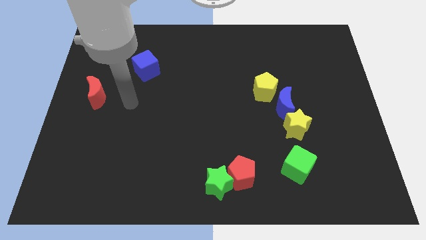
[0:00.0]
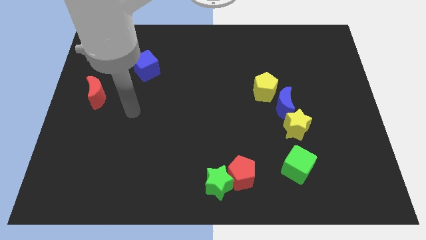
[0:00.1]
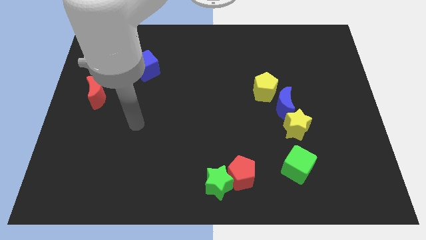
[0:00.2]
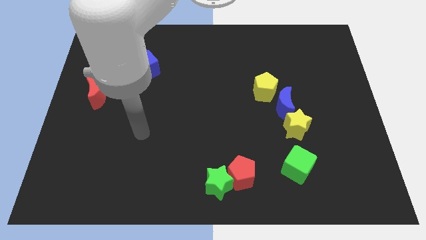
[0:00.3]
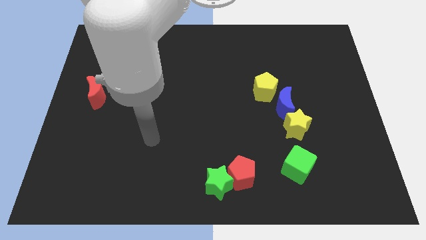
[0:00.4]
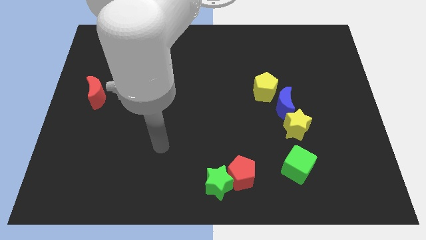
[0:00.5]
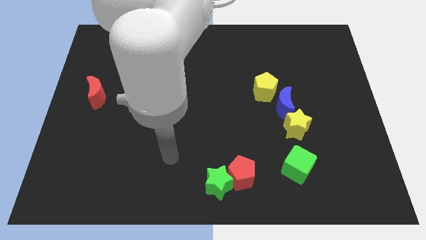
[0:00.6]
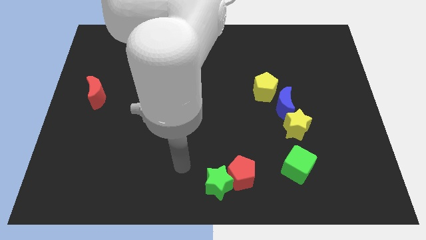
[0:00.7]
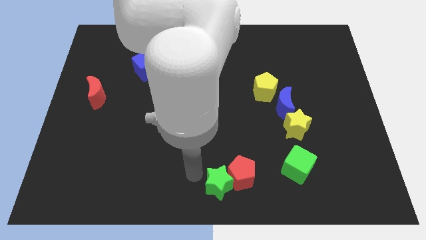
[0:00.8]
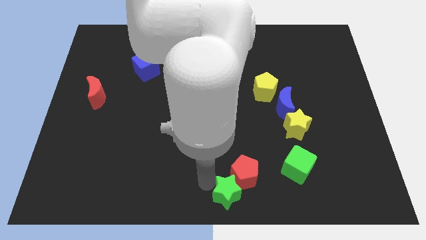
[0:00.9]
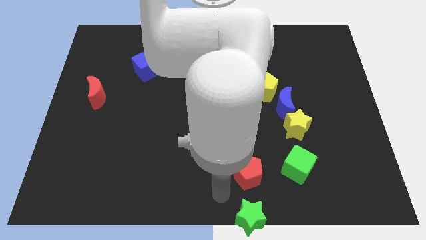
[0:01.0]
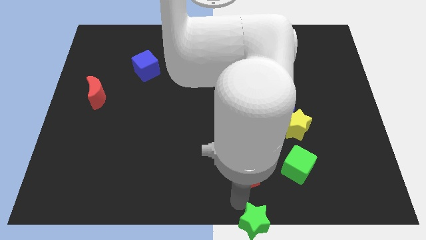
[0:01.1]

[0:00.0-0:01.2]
separate the red pentagon from the green star

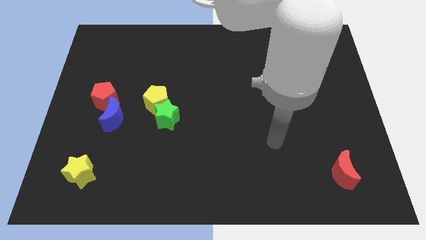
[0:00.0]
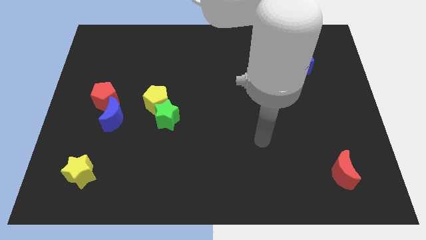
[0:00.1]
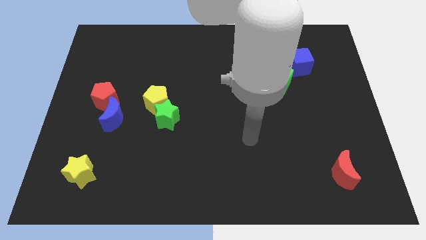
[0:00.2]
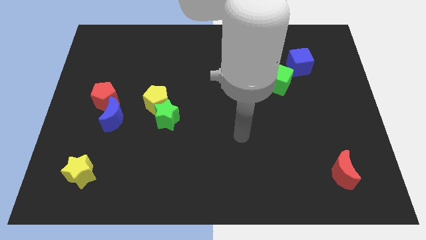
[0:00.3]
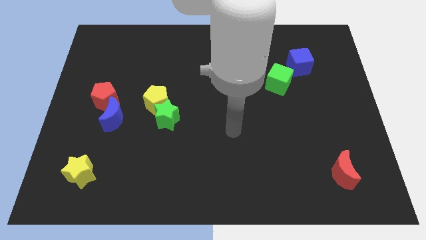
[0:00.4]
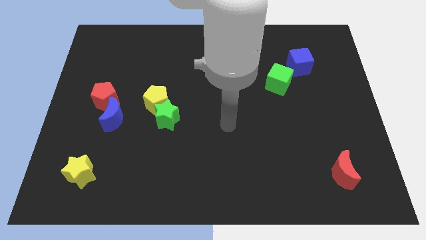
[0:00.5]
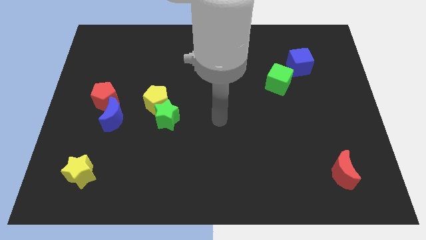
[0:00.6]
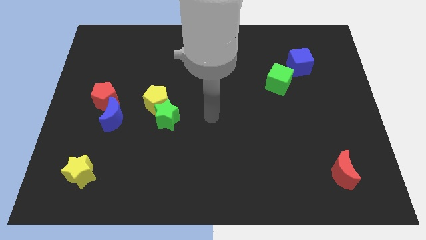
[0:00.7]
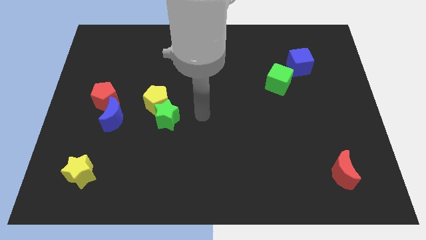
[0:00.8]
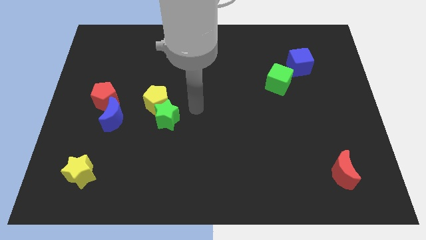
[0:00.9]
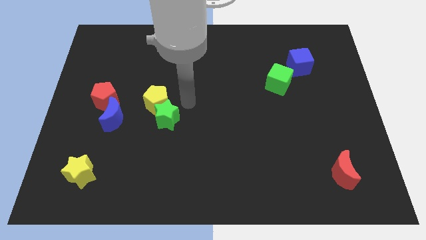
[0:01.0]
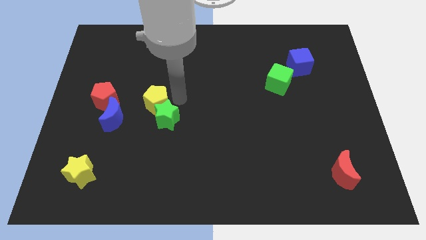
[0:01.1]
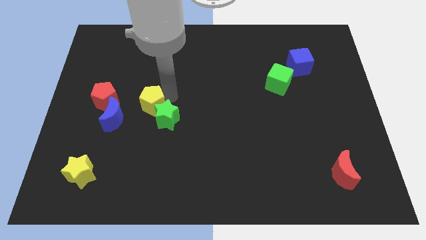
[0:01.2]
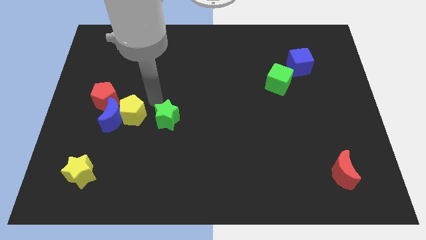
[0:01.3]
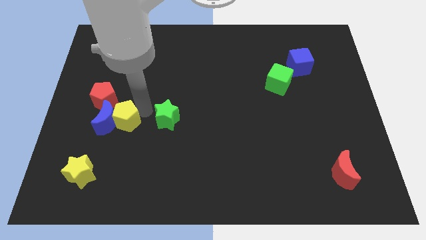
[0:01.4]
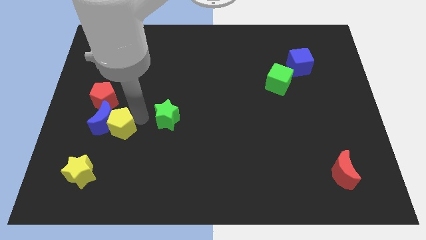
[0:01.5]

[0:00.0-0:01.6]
separate the green star from the yellow pentagon

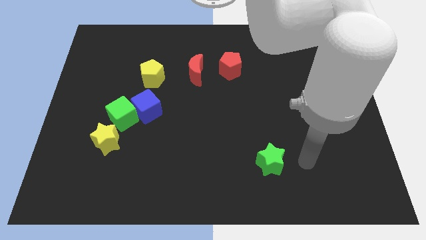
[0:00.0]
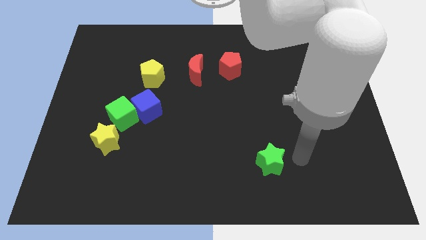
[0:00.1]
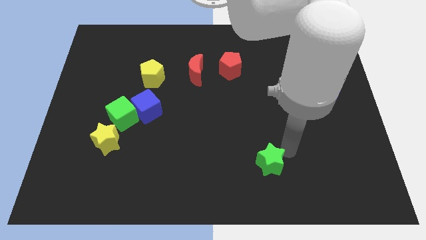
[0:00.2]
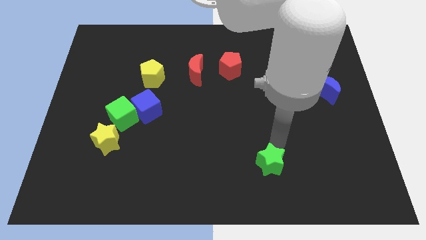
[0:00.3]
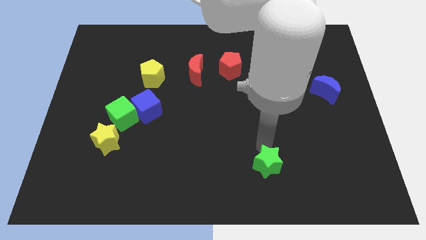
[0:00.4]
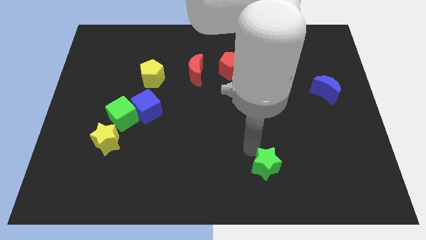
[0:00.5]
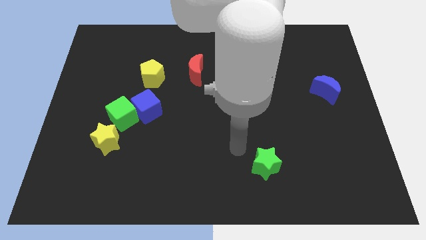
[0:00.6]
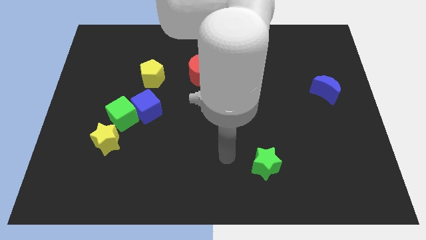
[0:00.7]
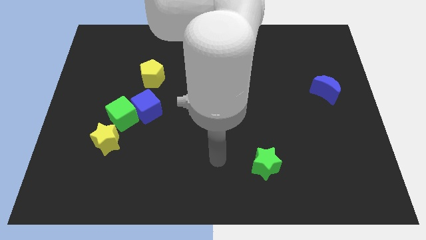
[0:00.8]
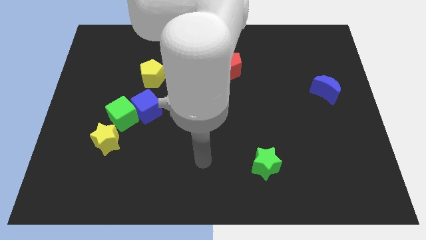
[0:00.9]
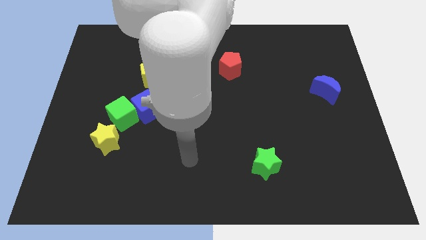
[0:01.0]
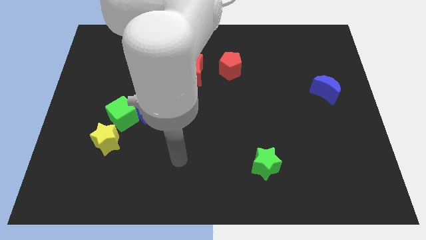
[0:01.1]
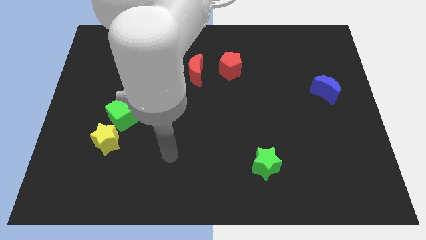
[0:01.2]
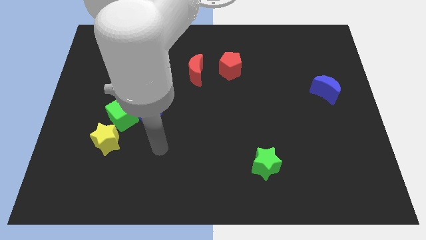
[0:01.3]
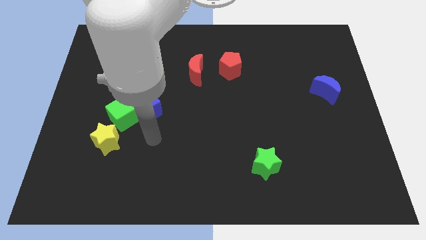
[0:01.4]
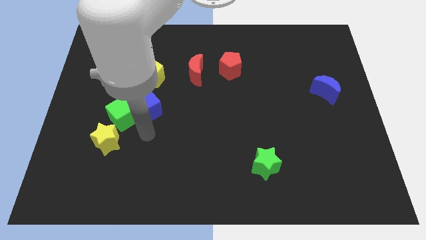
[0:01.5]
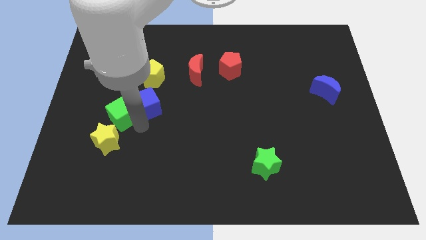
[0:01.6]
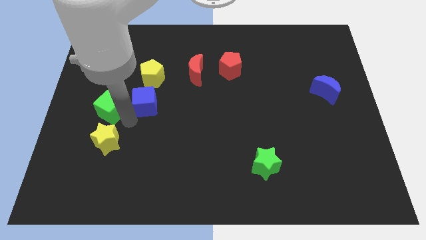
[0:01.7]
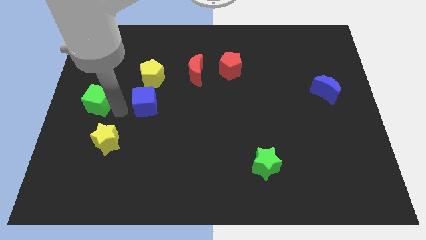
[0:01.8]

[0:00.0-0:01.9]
separate the blue cube from the green cube

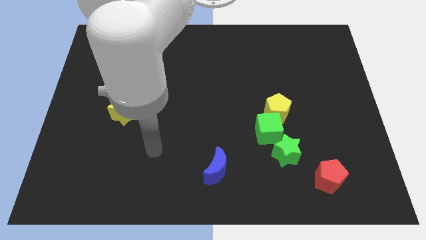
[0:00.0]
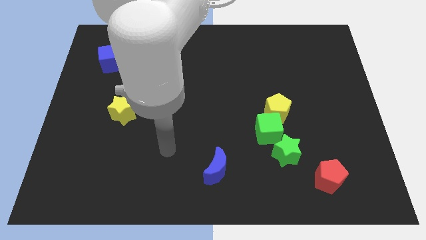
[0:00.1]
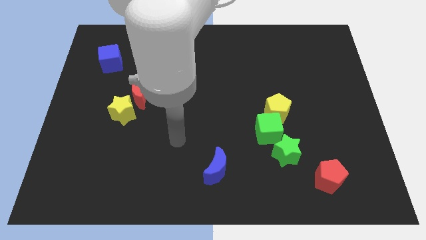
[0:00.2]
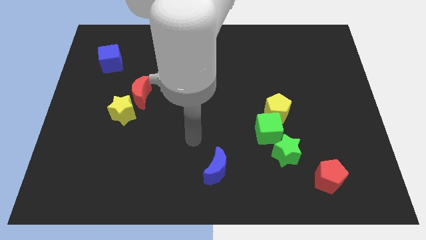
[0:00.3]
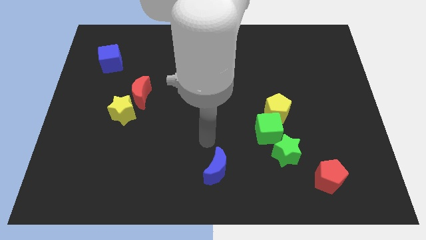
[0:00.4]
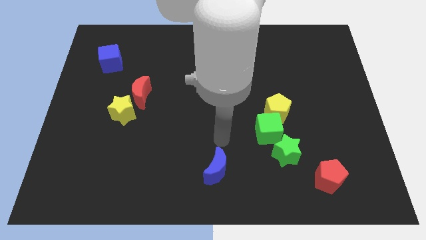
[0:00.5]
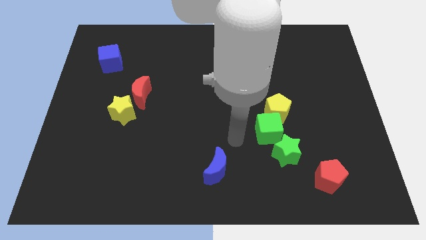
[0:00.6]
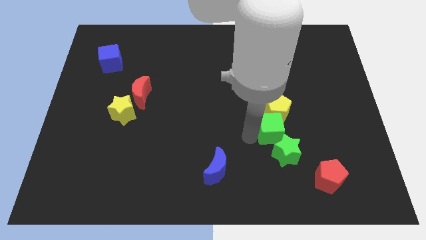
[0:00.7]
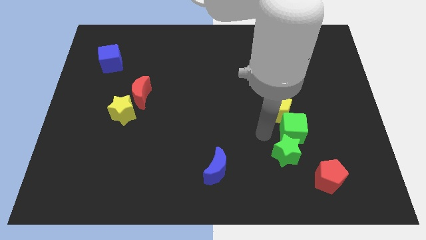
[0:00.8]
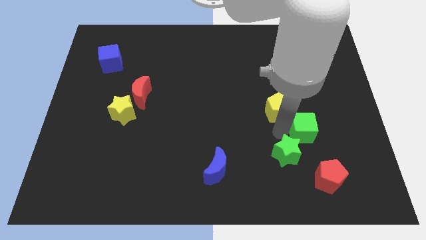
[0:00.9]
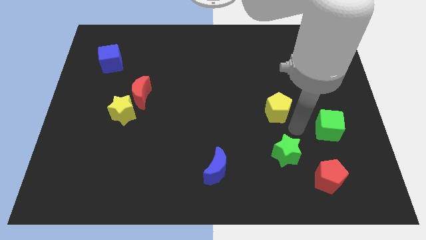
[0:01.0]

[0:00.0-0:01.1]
separate the yellow pentagon from the green cube

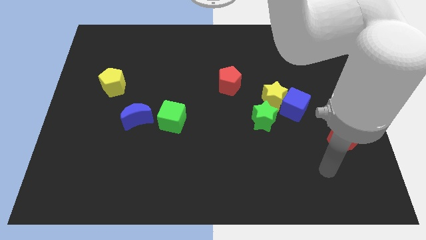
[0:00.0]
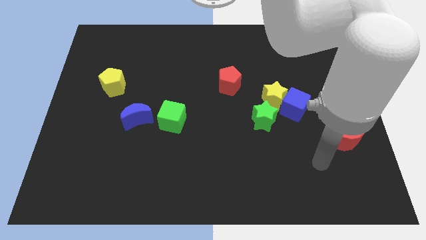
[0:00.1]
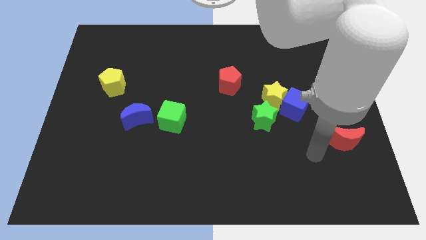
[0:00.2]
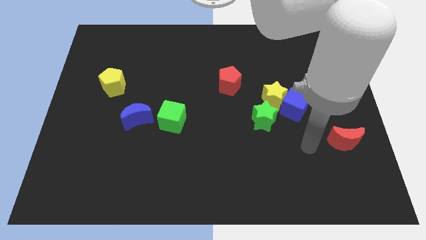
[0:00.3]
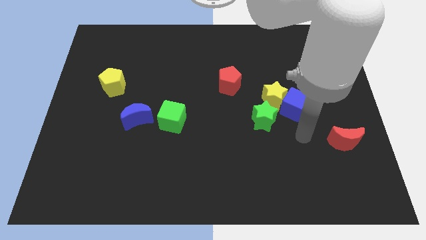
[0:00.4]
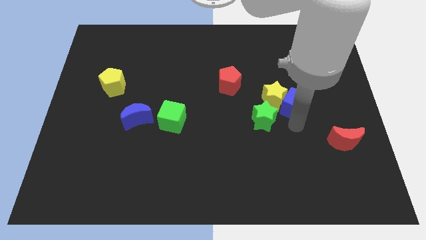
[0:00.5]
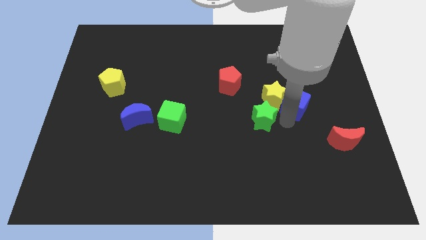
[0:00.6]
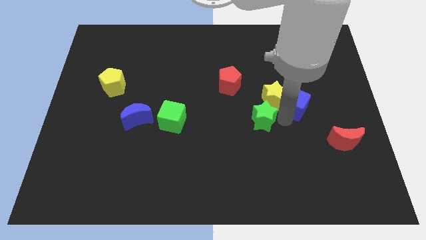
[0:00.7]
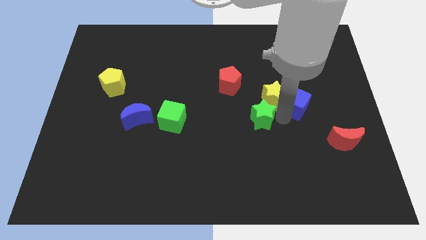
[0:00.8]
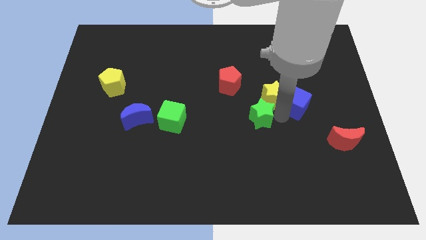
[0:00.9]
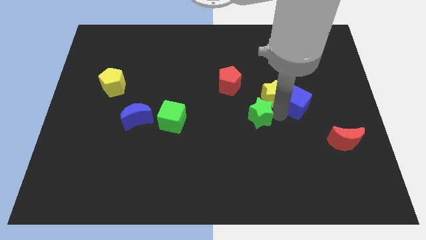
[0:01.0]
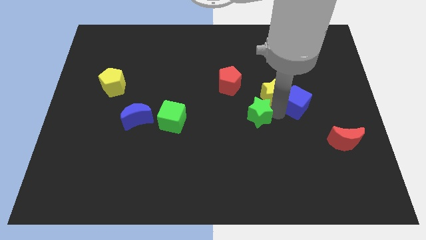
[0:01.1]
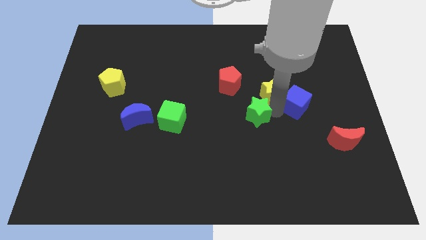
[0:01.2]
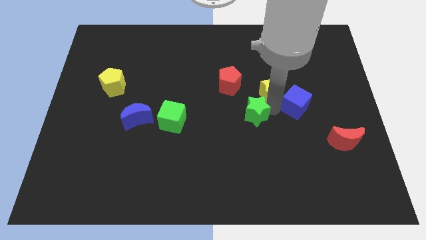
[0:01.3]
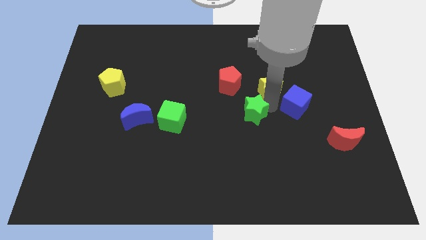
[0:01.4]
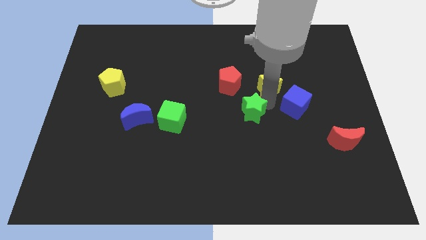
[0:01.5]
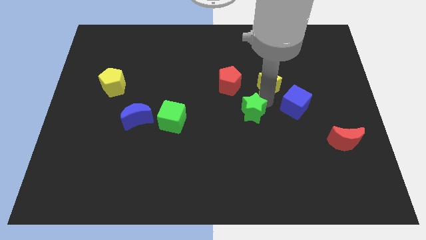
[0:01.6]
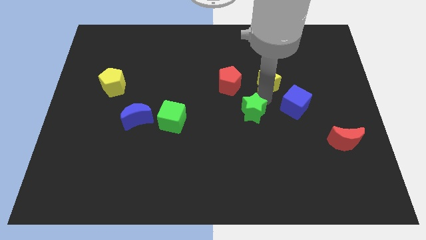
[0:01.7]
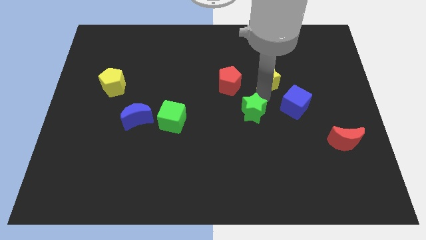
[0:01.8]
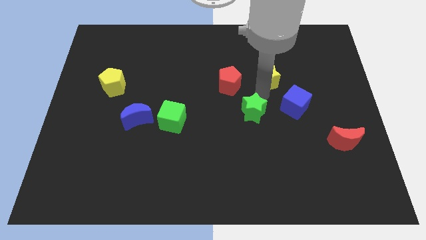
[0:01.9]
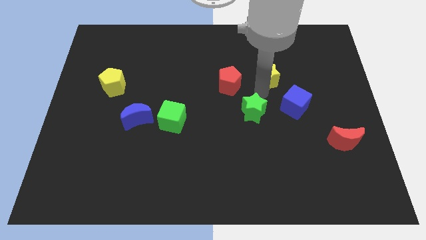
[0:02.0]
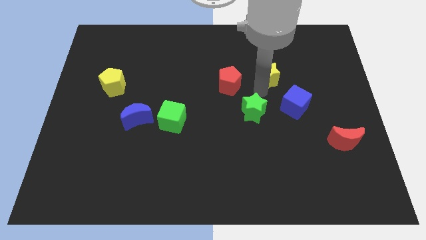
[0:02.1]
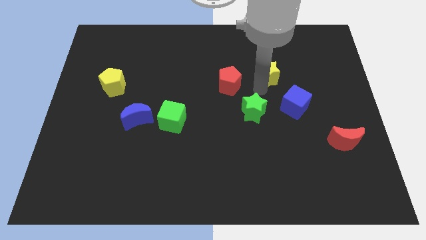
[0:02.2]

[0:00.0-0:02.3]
separate the yellow star from the blue cube and green star

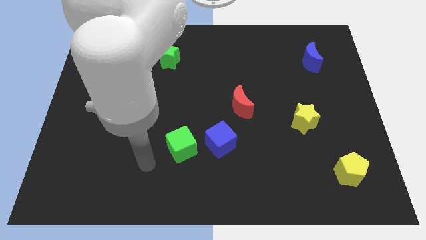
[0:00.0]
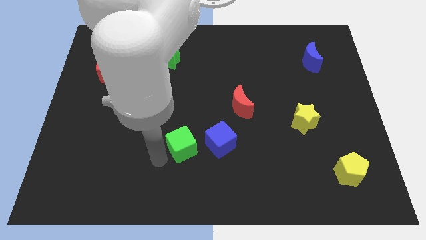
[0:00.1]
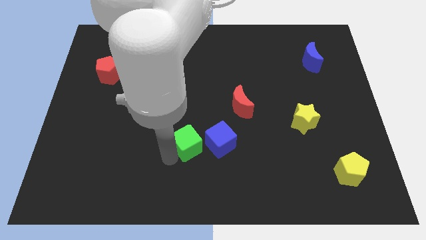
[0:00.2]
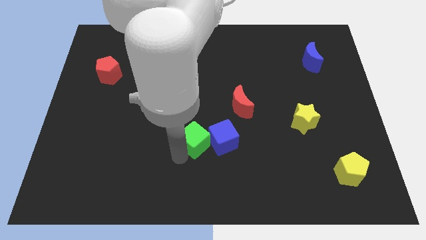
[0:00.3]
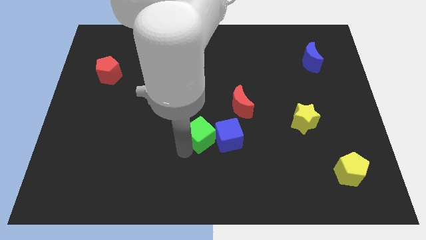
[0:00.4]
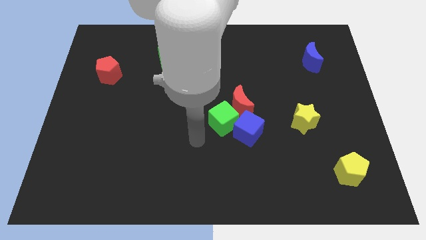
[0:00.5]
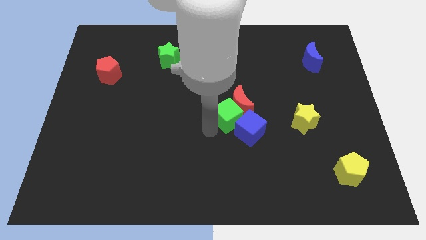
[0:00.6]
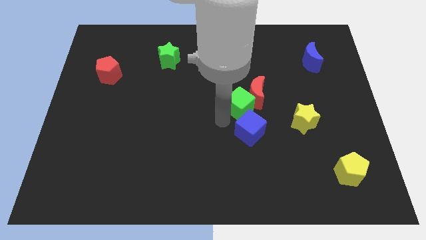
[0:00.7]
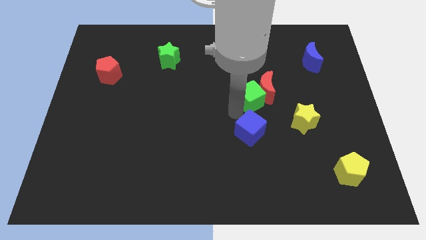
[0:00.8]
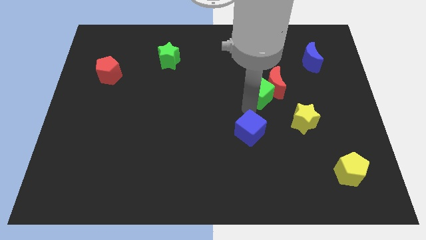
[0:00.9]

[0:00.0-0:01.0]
move the blue cube away from the green cube

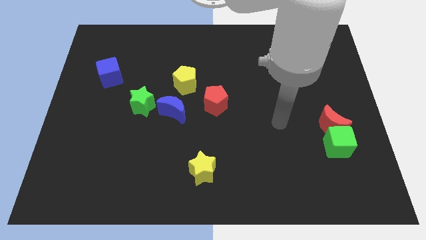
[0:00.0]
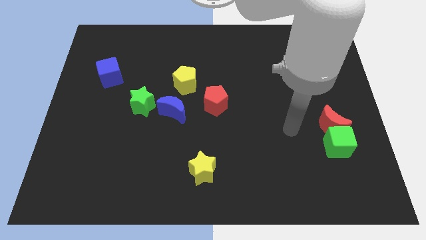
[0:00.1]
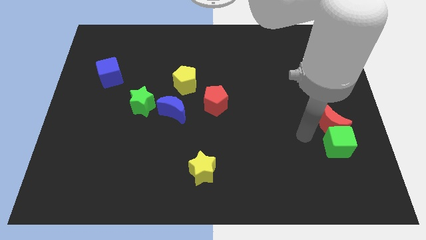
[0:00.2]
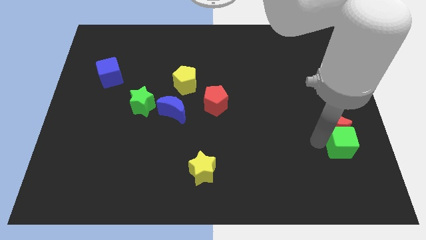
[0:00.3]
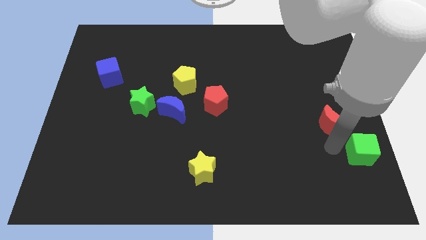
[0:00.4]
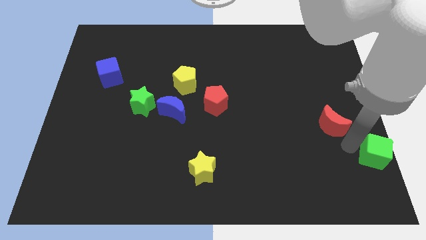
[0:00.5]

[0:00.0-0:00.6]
move the red moon away from the green cube
